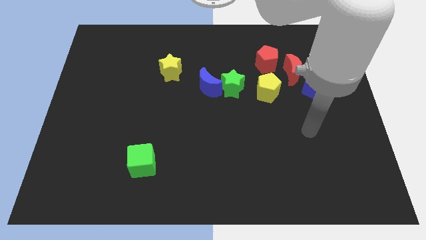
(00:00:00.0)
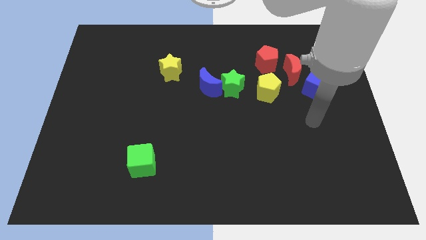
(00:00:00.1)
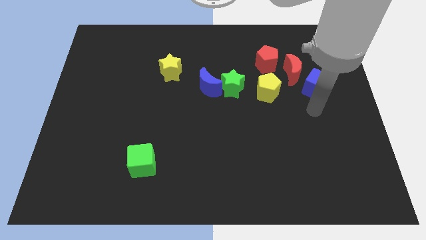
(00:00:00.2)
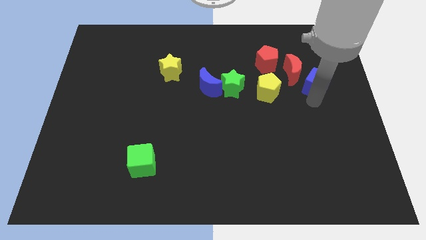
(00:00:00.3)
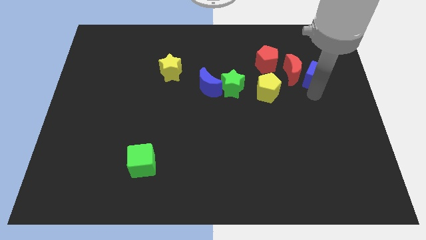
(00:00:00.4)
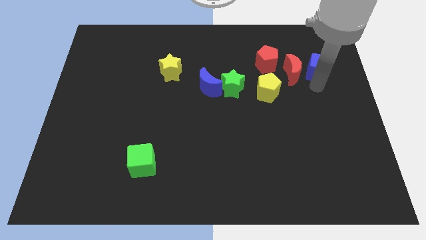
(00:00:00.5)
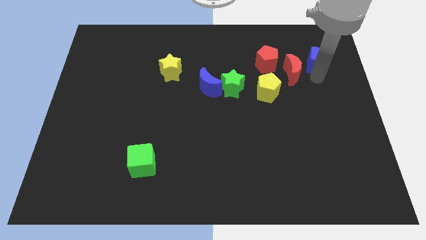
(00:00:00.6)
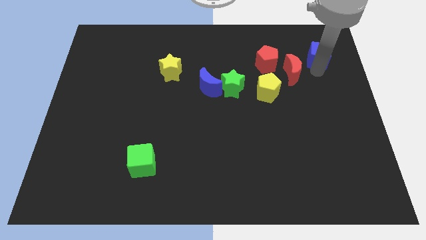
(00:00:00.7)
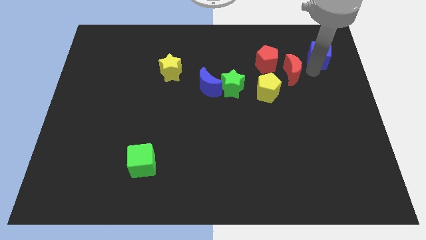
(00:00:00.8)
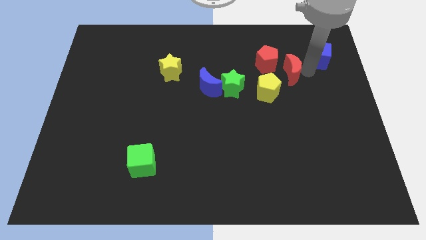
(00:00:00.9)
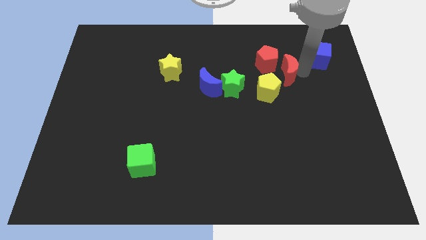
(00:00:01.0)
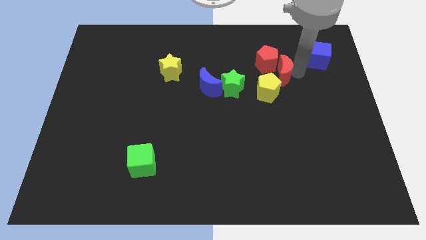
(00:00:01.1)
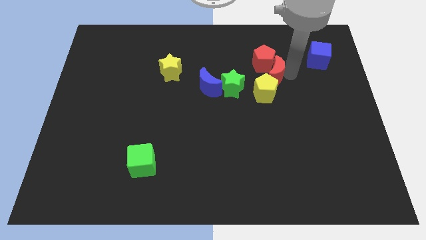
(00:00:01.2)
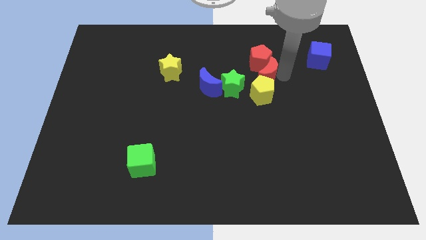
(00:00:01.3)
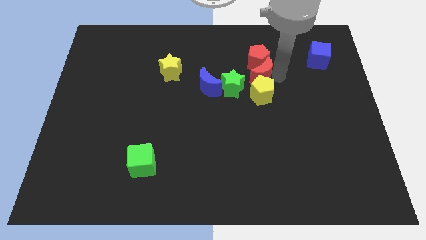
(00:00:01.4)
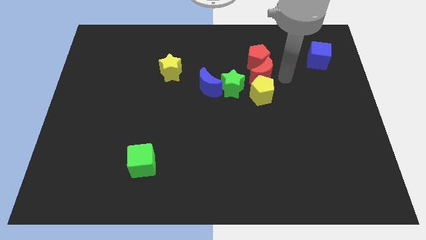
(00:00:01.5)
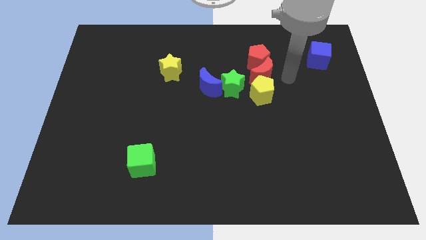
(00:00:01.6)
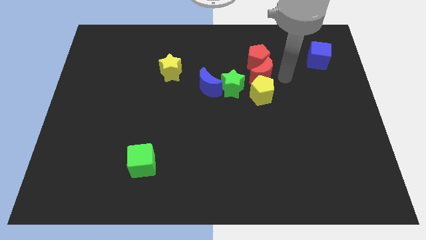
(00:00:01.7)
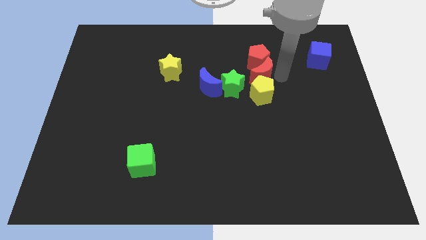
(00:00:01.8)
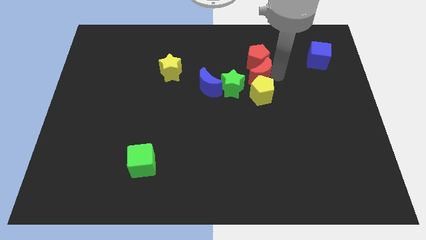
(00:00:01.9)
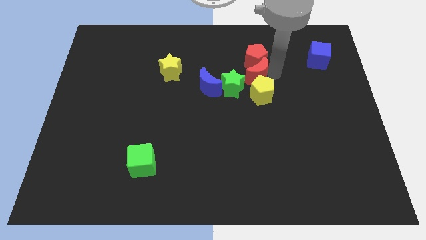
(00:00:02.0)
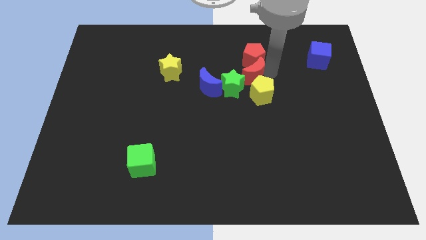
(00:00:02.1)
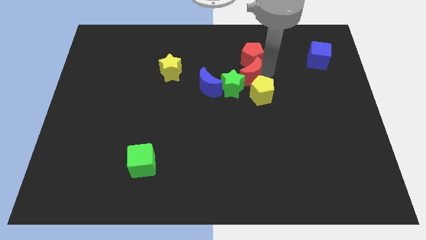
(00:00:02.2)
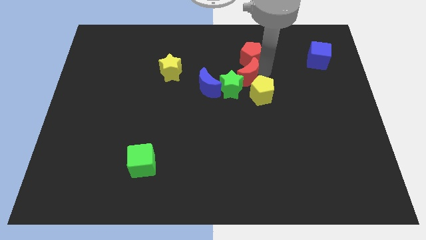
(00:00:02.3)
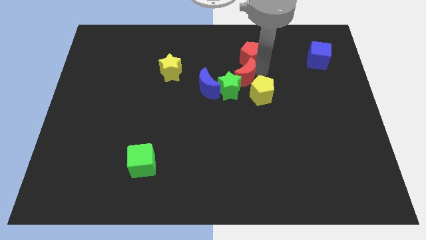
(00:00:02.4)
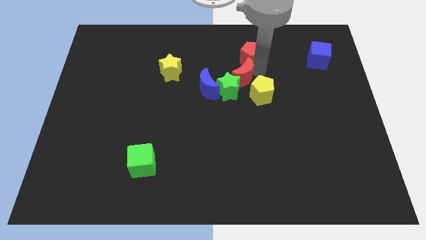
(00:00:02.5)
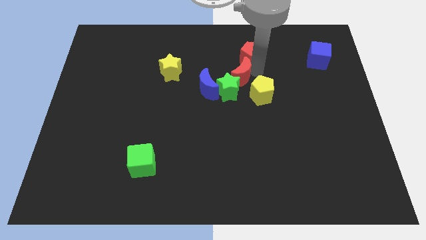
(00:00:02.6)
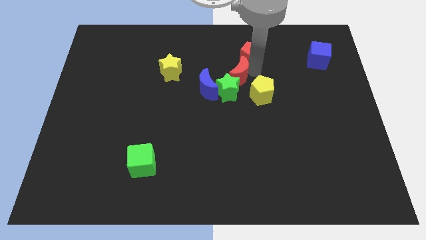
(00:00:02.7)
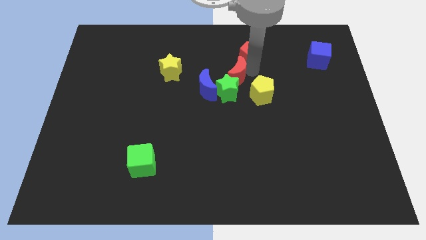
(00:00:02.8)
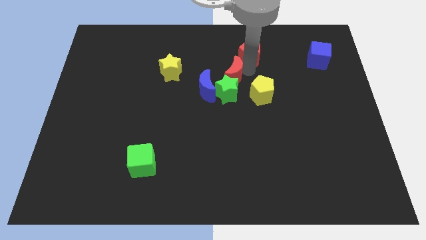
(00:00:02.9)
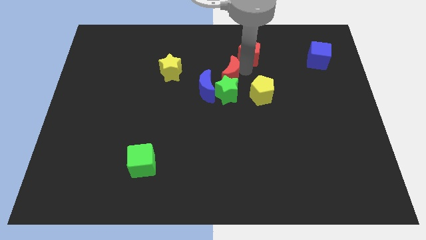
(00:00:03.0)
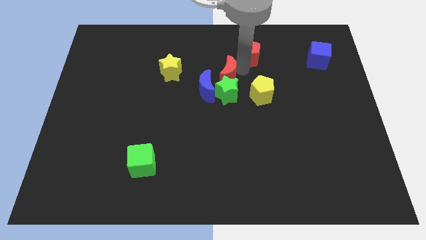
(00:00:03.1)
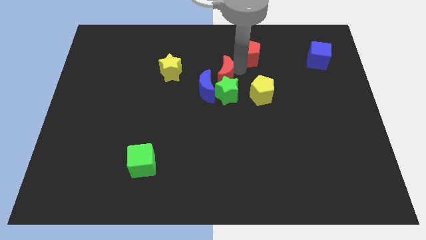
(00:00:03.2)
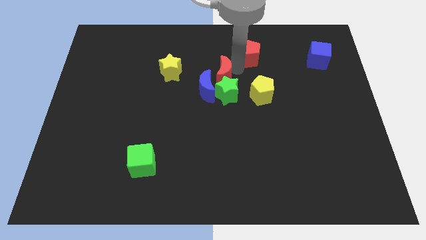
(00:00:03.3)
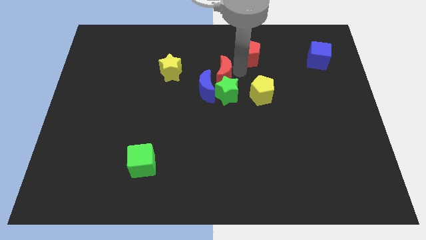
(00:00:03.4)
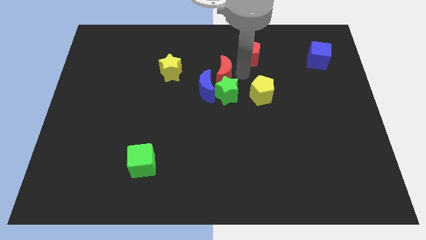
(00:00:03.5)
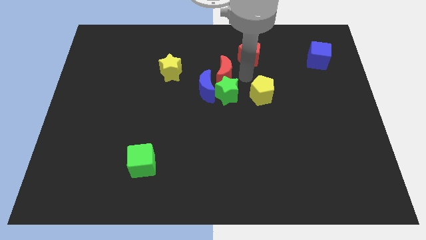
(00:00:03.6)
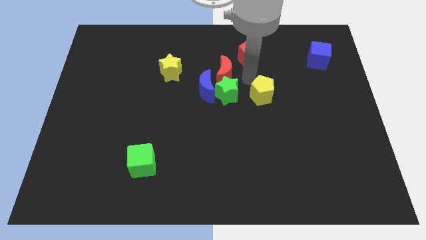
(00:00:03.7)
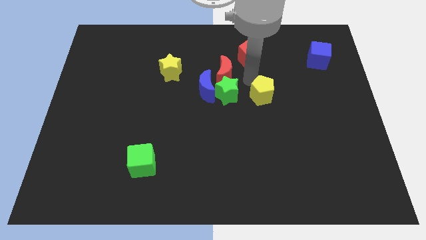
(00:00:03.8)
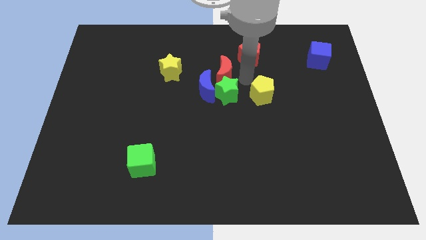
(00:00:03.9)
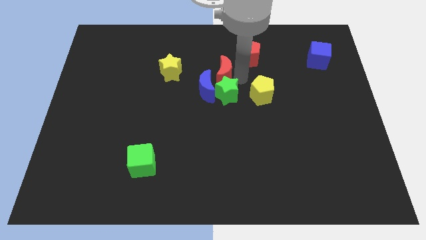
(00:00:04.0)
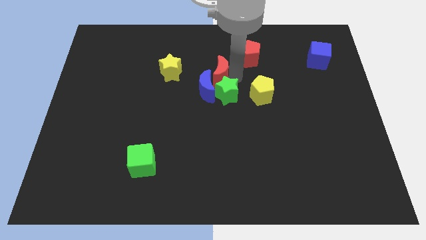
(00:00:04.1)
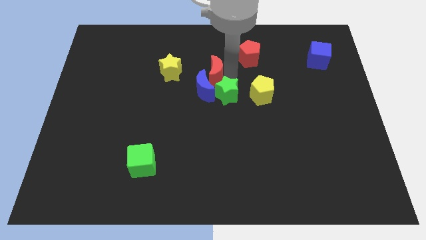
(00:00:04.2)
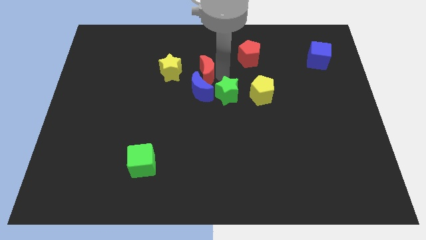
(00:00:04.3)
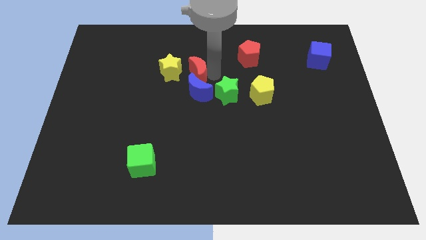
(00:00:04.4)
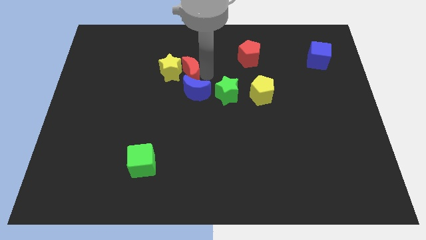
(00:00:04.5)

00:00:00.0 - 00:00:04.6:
slide the red moon towards the yellow star

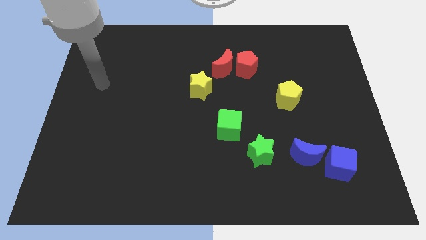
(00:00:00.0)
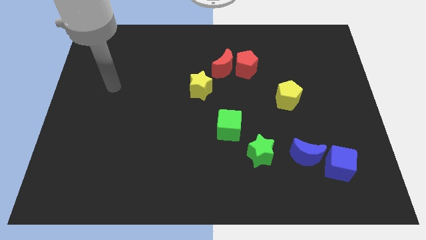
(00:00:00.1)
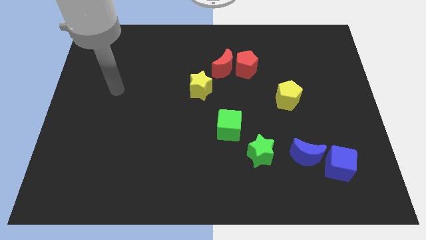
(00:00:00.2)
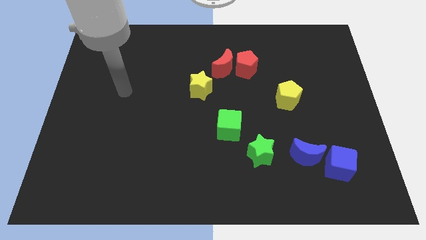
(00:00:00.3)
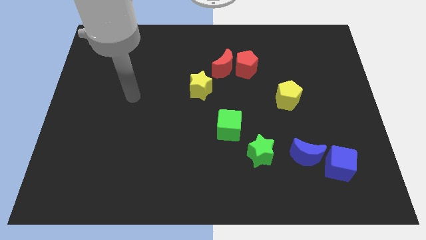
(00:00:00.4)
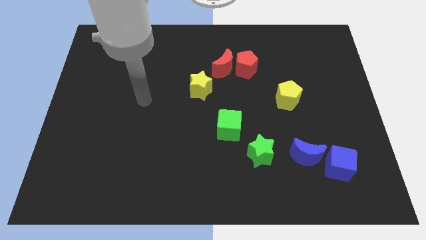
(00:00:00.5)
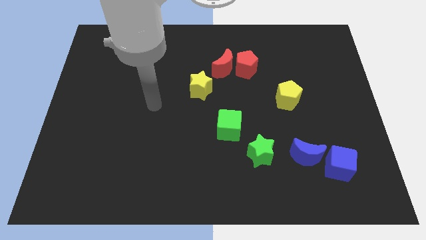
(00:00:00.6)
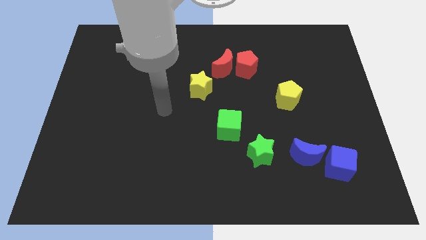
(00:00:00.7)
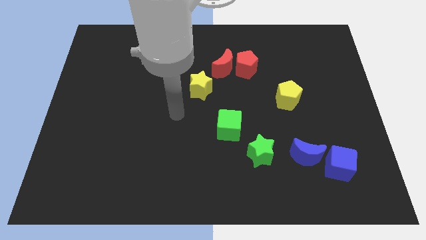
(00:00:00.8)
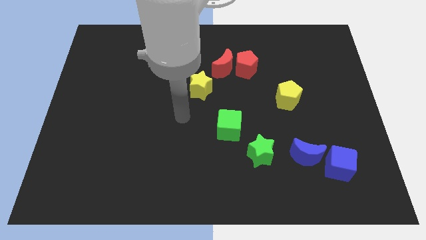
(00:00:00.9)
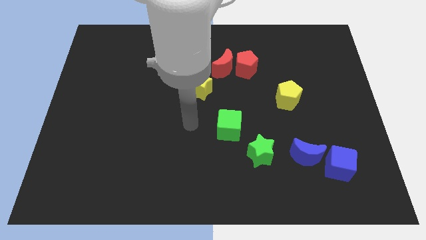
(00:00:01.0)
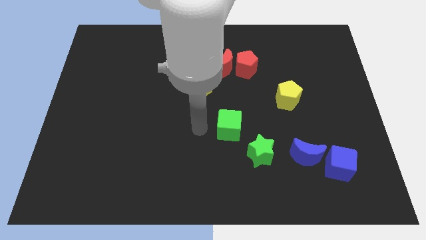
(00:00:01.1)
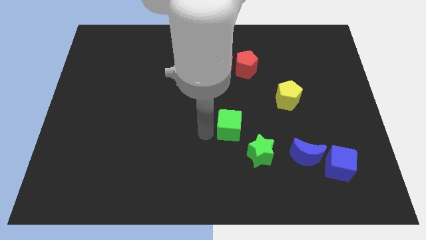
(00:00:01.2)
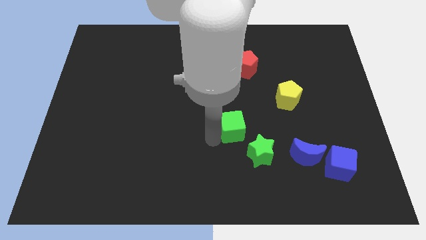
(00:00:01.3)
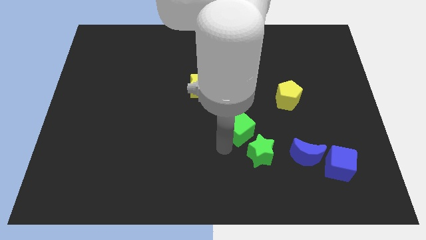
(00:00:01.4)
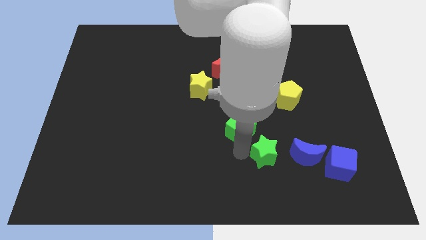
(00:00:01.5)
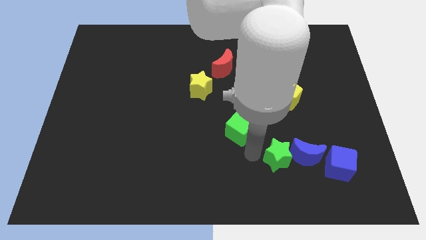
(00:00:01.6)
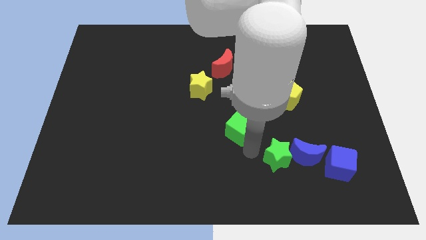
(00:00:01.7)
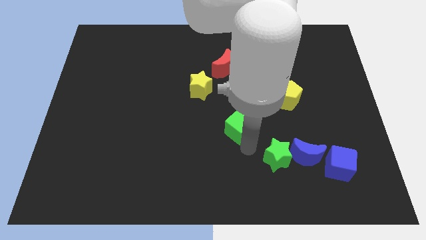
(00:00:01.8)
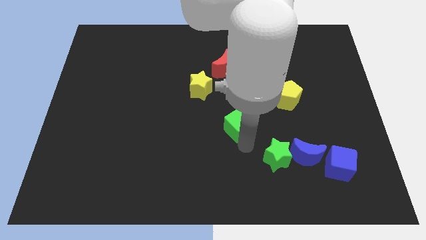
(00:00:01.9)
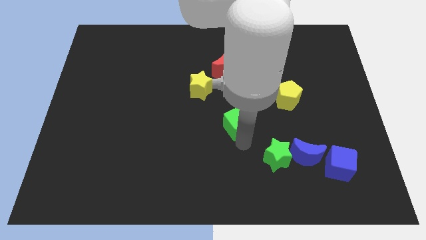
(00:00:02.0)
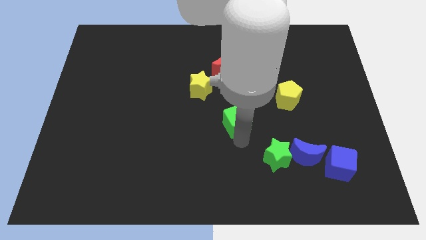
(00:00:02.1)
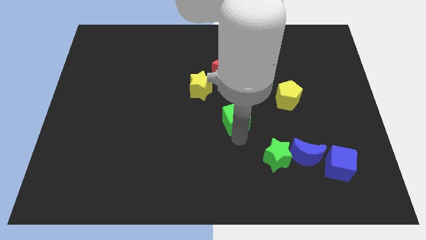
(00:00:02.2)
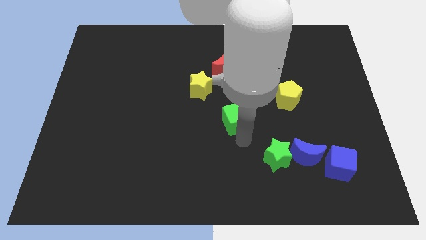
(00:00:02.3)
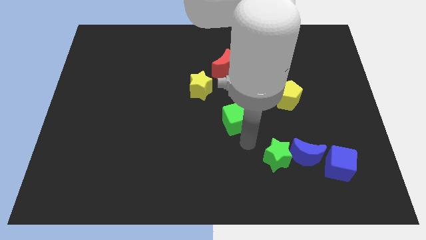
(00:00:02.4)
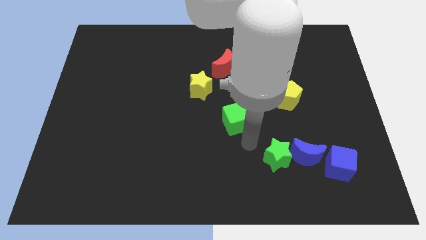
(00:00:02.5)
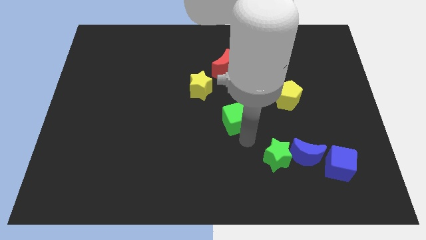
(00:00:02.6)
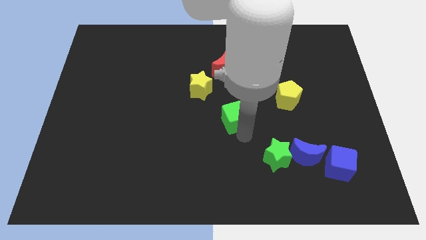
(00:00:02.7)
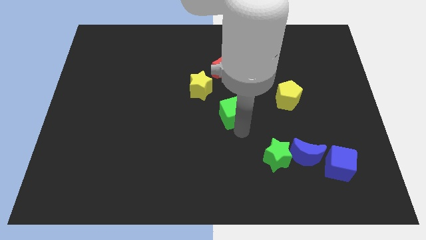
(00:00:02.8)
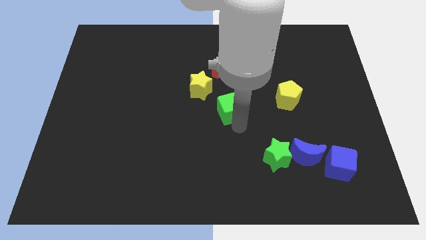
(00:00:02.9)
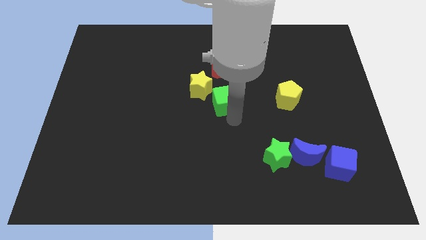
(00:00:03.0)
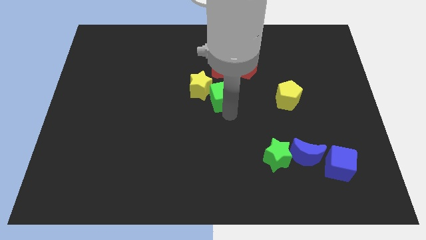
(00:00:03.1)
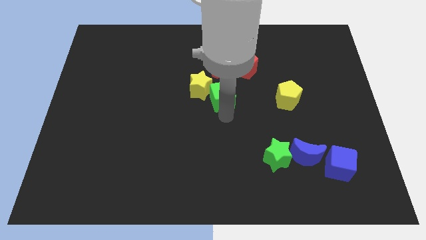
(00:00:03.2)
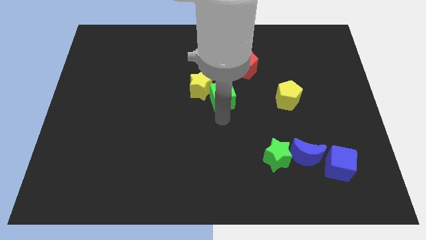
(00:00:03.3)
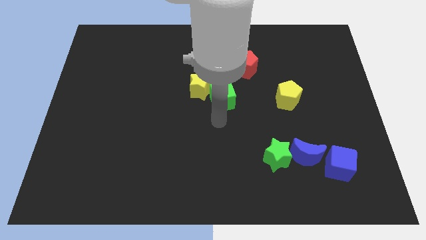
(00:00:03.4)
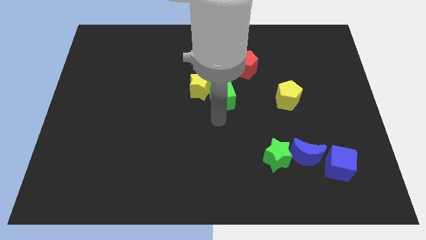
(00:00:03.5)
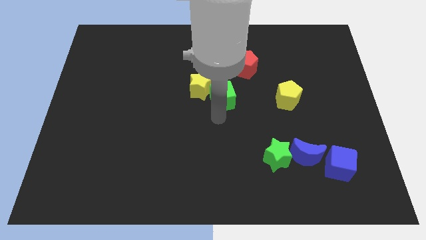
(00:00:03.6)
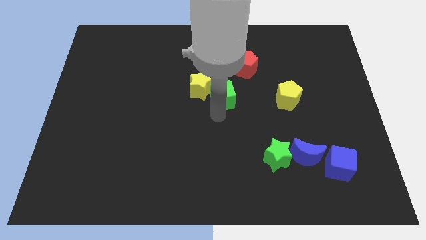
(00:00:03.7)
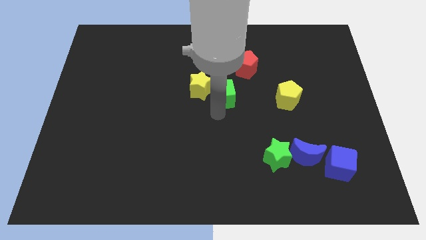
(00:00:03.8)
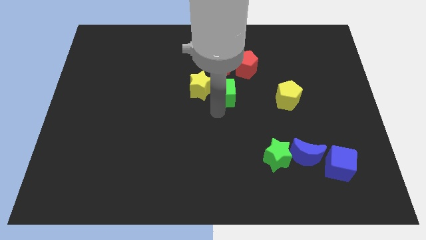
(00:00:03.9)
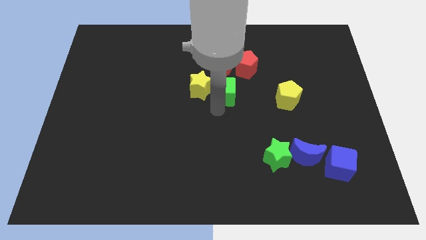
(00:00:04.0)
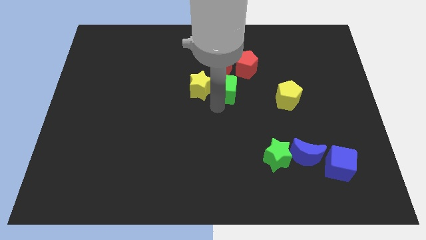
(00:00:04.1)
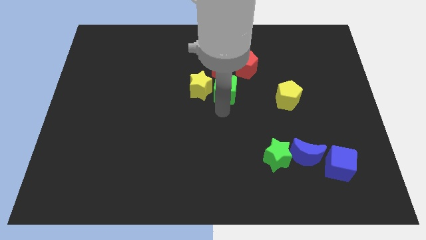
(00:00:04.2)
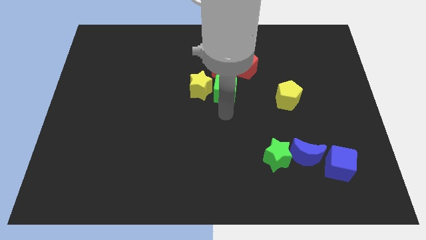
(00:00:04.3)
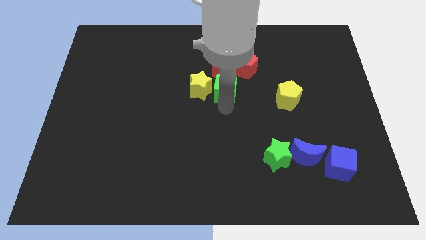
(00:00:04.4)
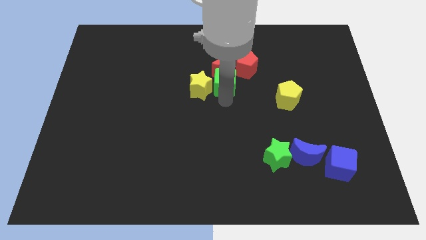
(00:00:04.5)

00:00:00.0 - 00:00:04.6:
slide the green cube to the red moon
